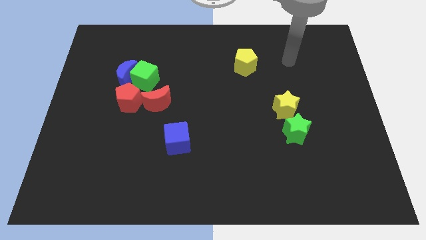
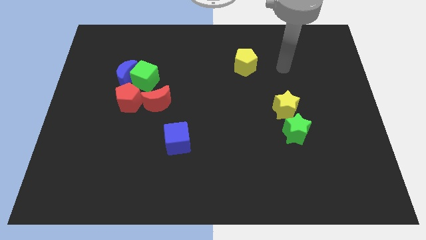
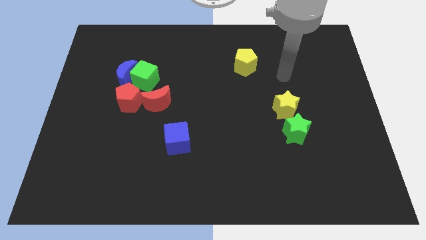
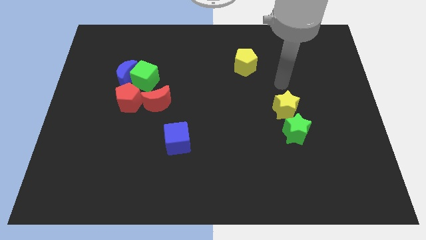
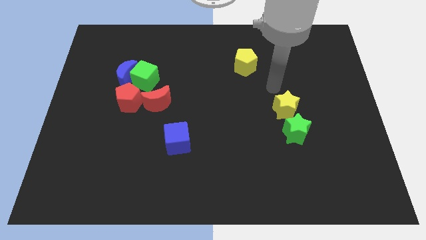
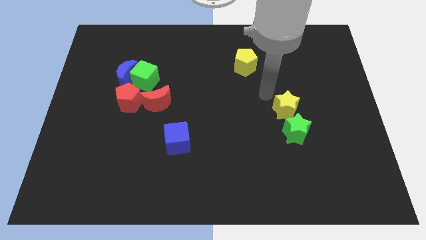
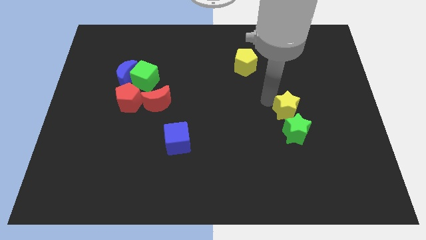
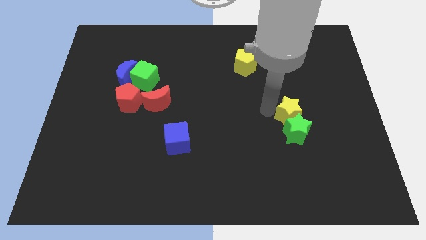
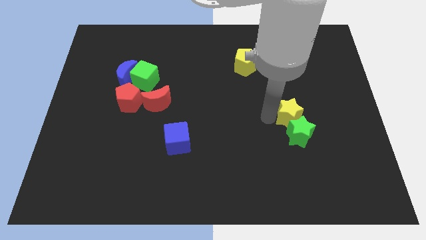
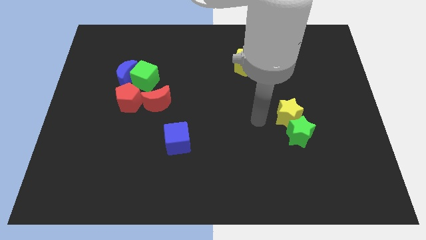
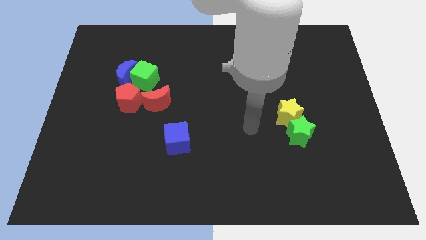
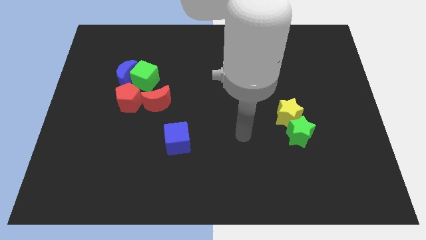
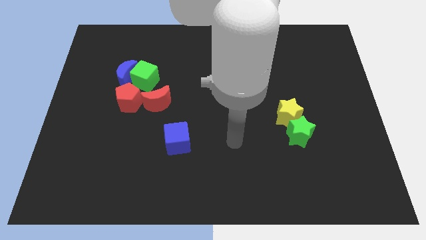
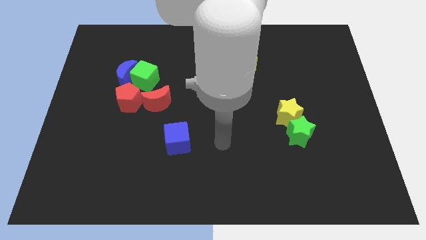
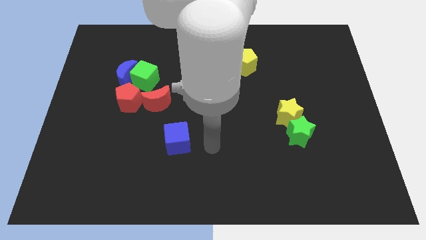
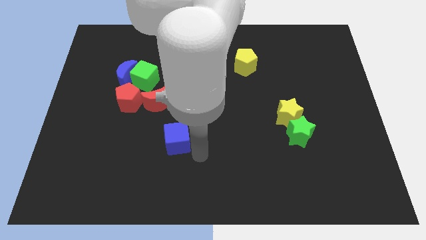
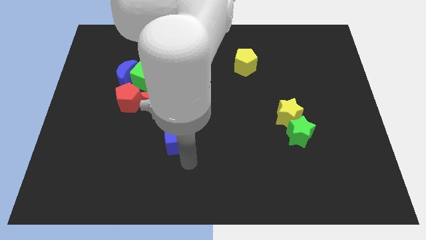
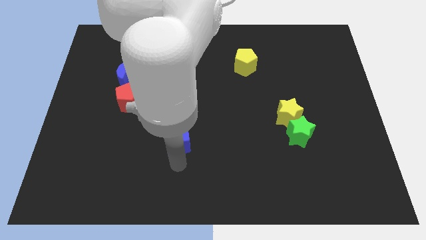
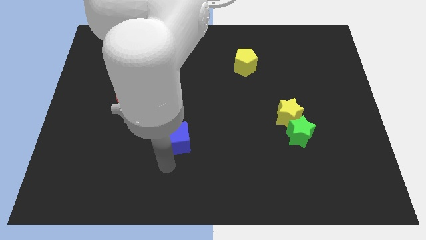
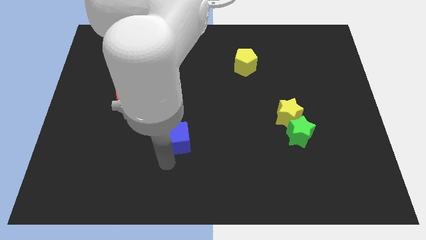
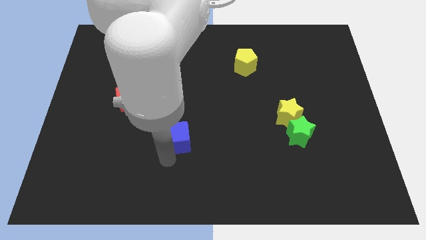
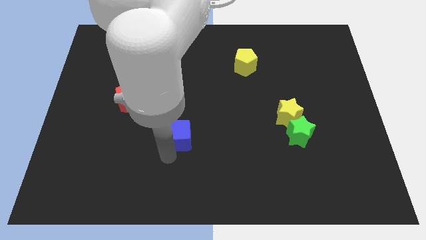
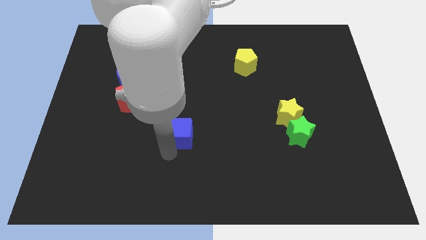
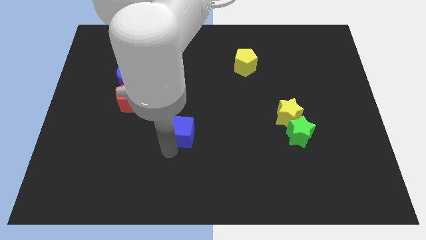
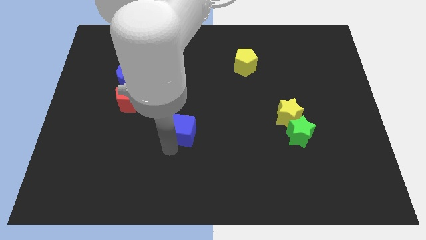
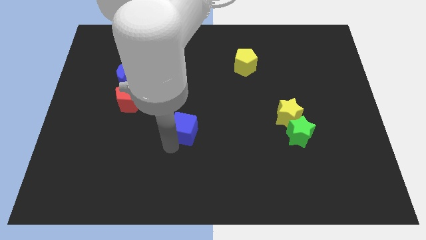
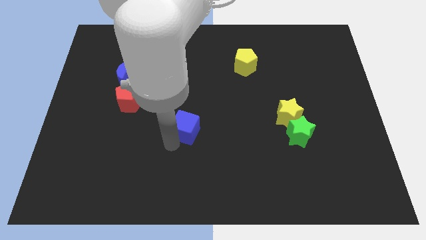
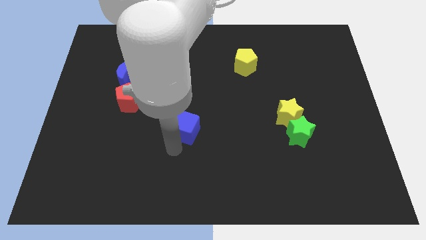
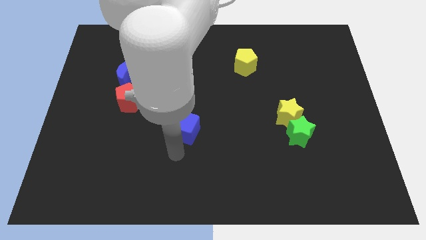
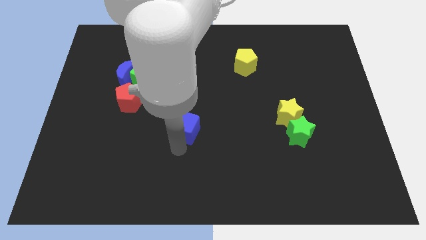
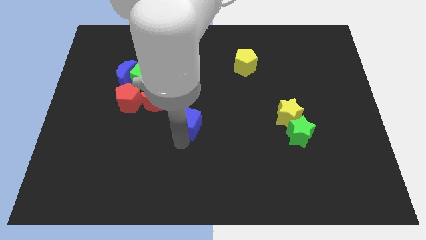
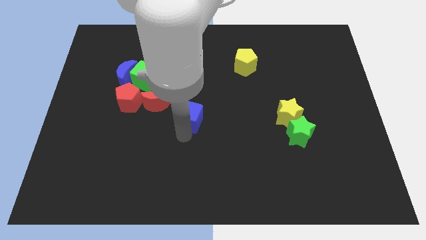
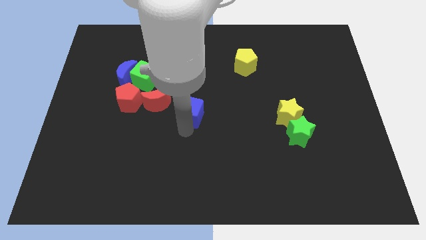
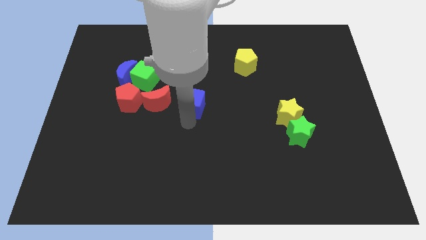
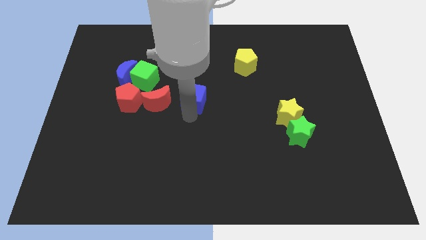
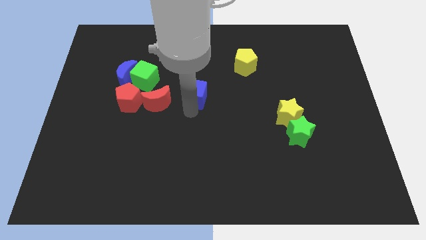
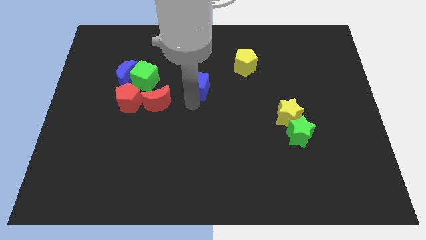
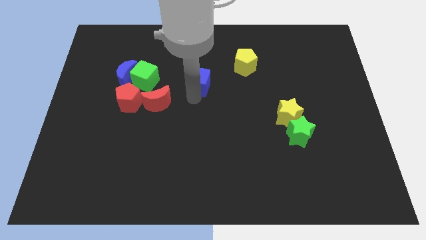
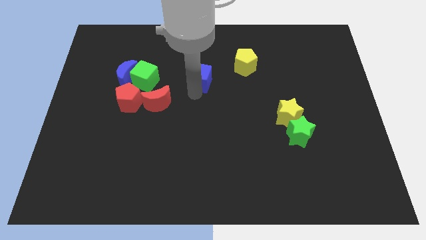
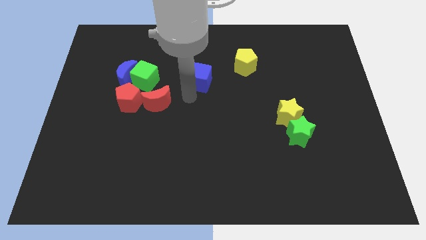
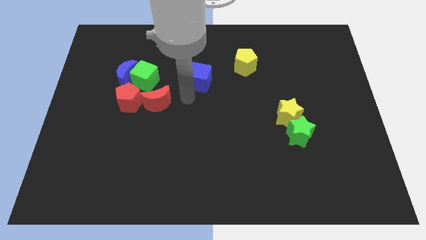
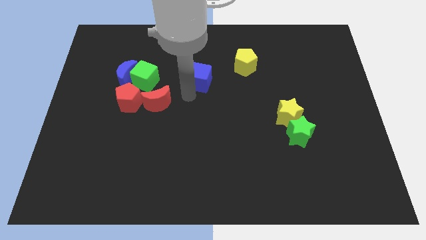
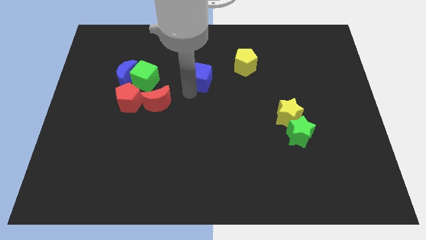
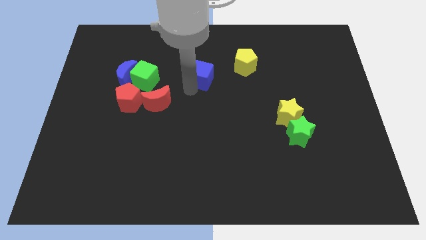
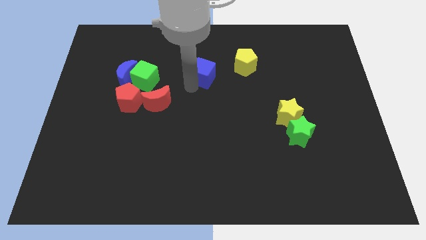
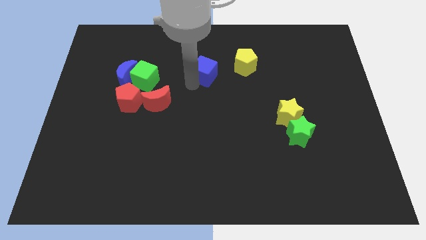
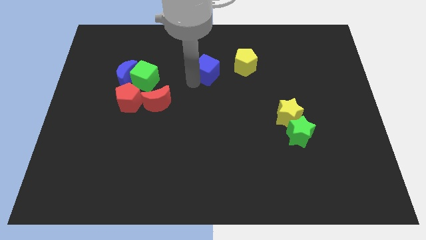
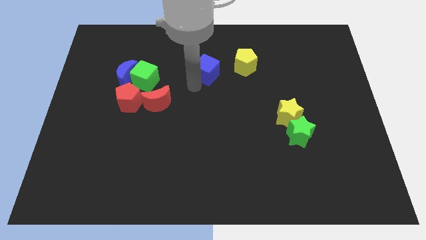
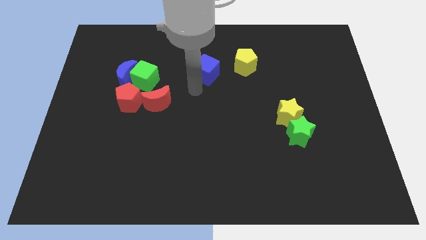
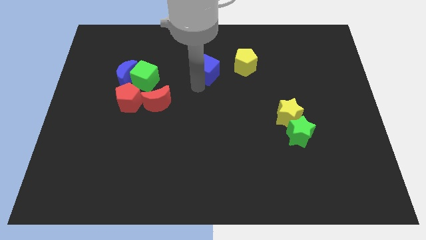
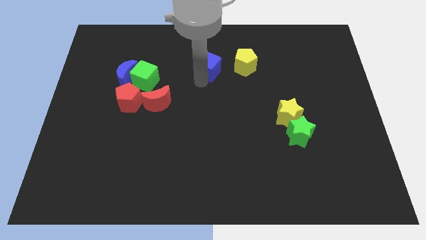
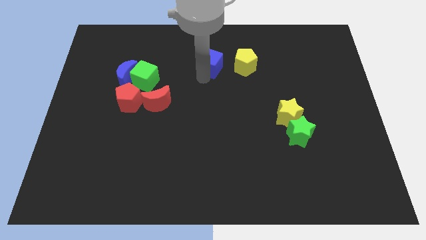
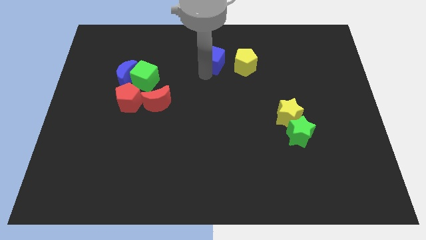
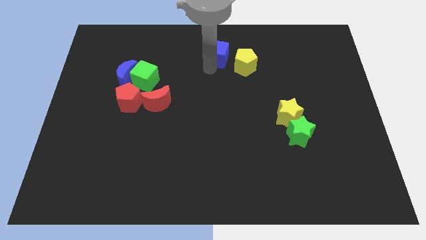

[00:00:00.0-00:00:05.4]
put the blue cube to the top

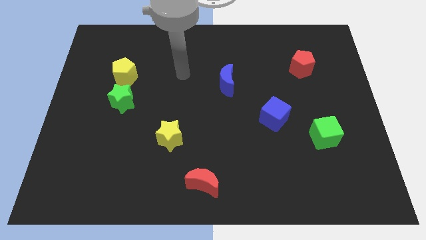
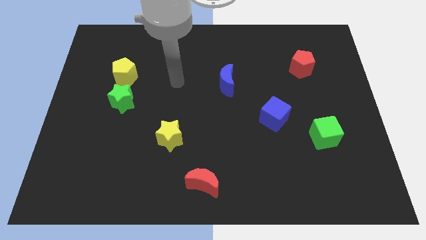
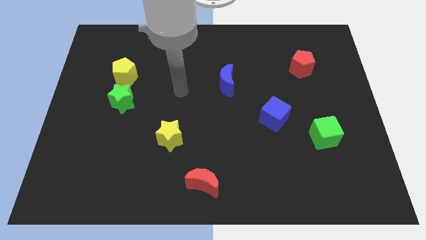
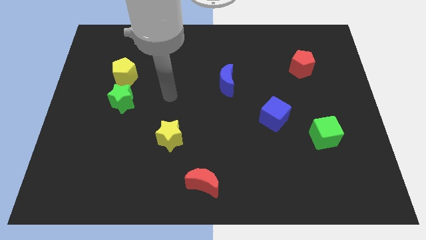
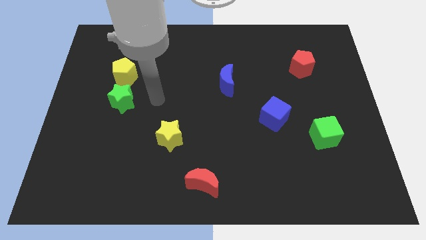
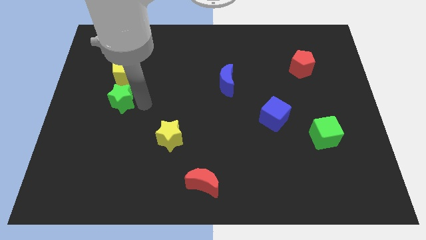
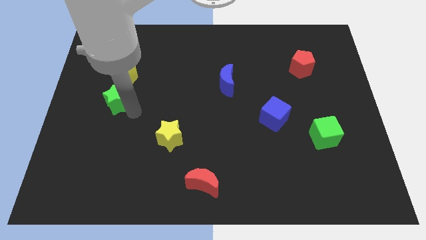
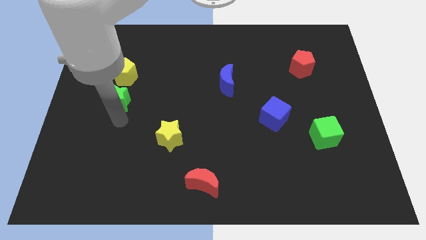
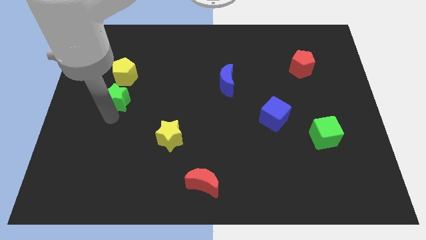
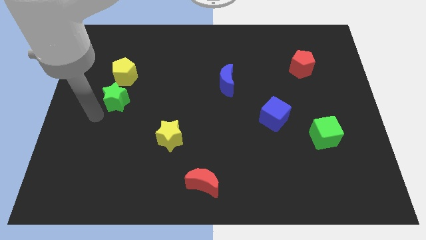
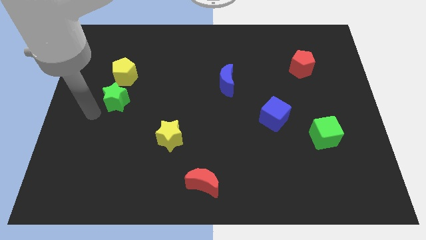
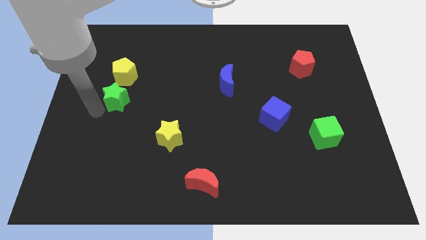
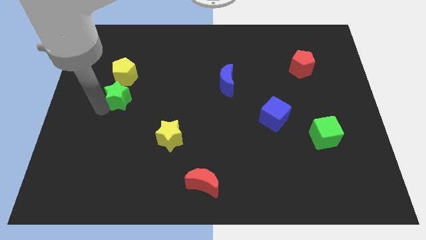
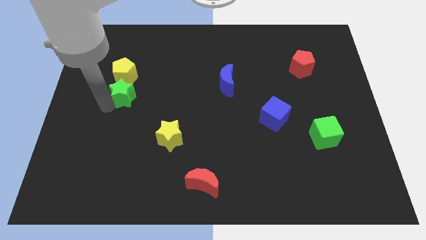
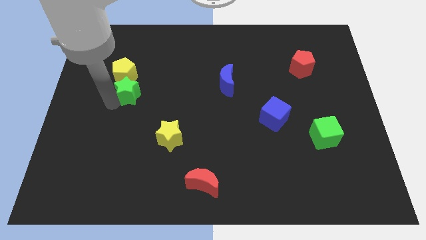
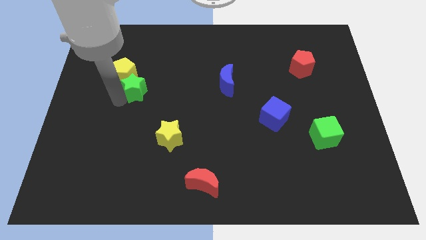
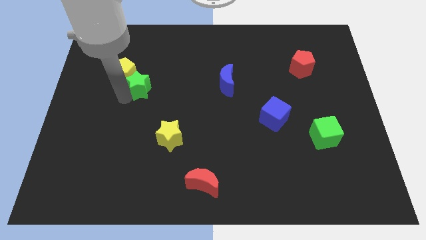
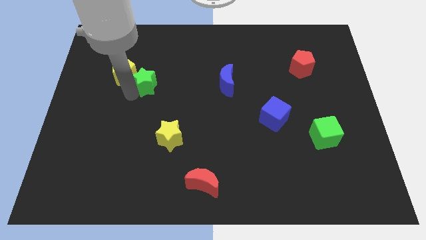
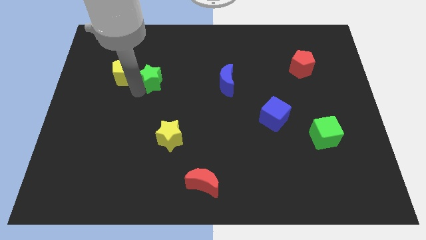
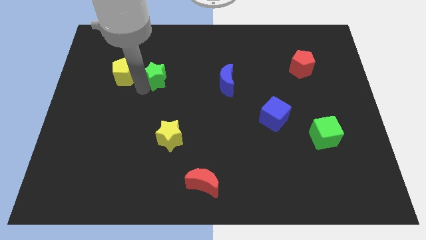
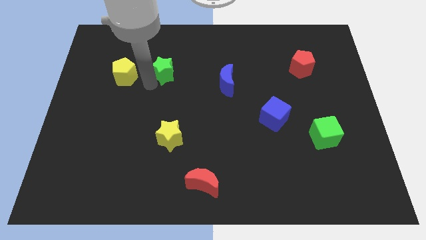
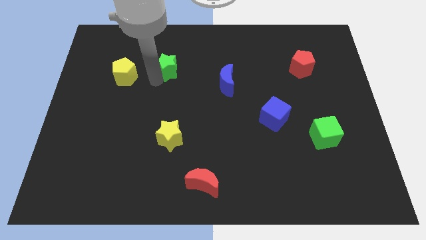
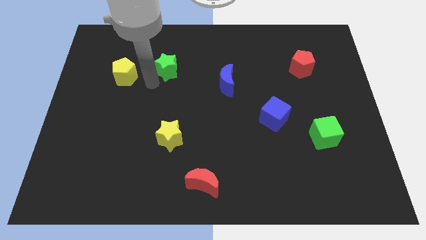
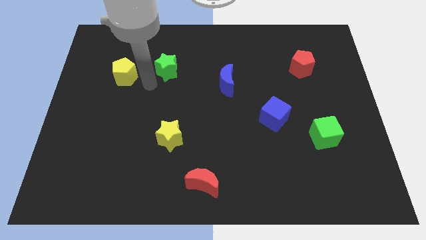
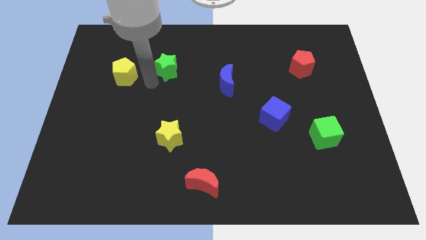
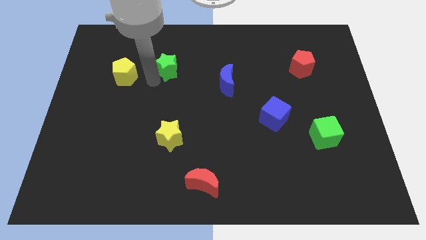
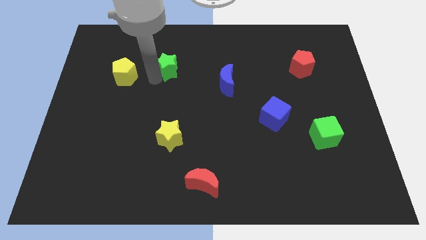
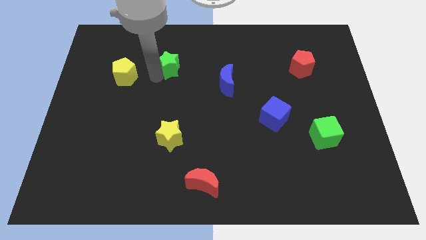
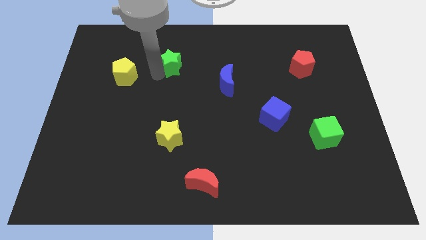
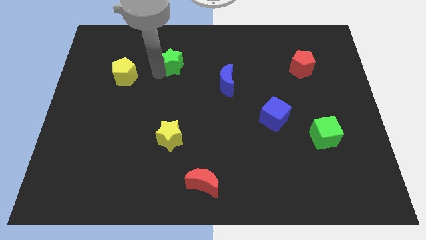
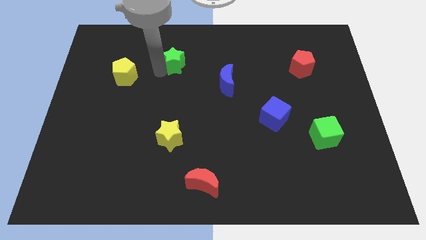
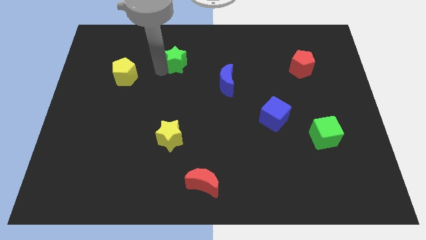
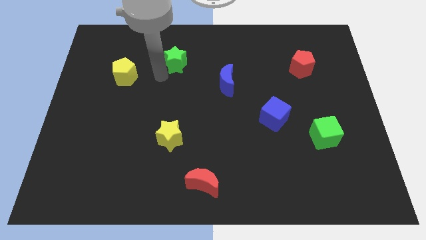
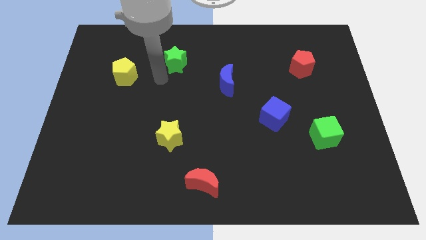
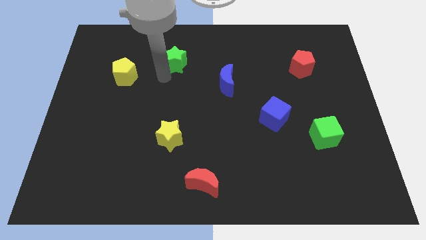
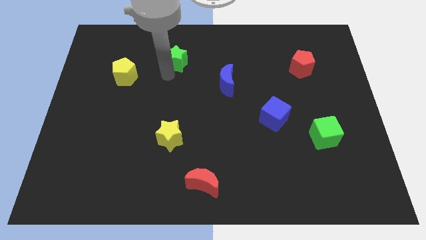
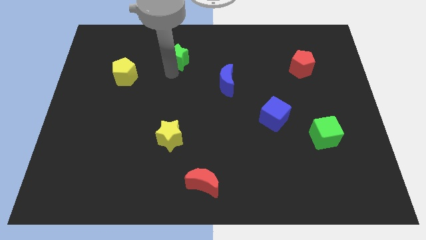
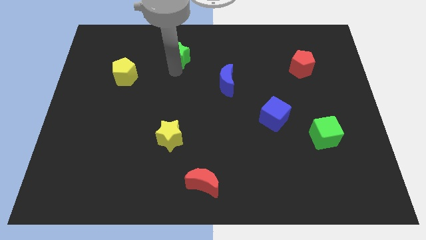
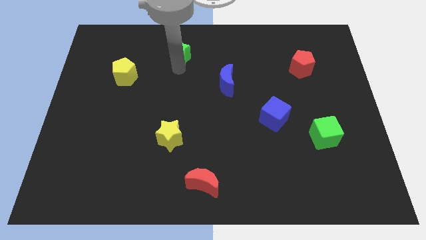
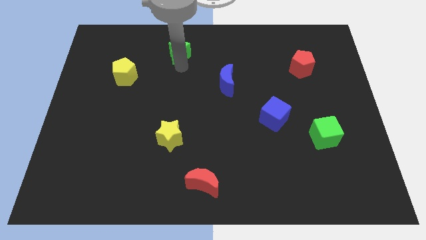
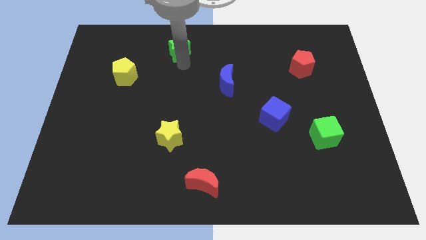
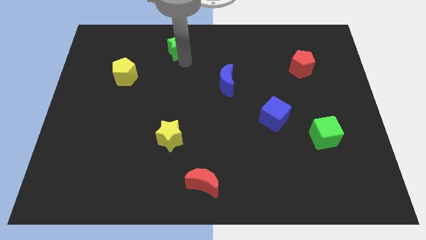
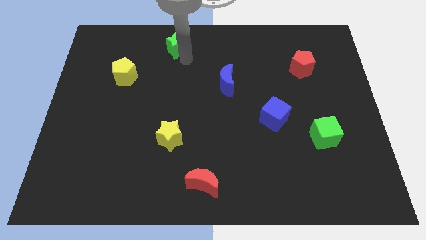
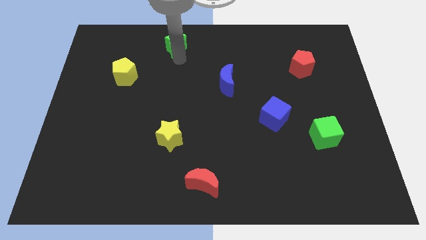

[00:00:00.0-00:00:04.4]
put the green star to the top side
